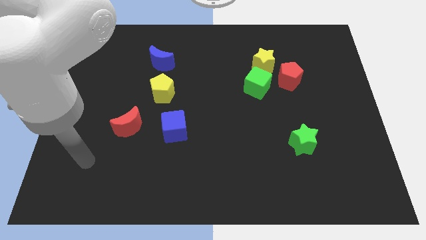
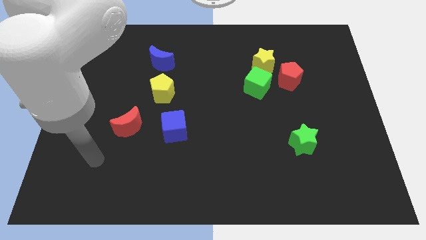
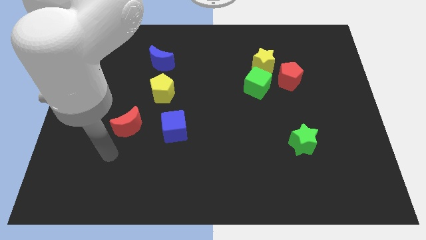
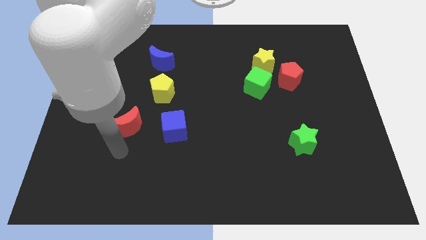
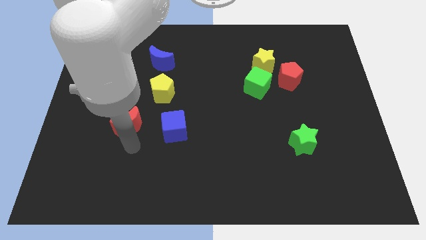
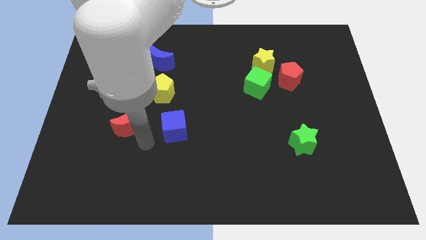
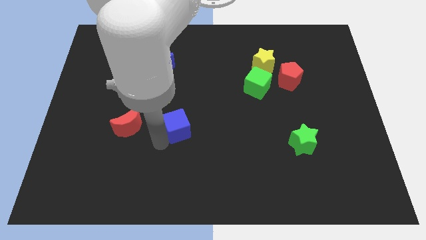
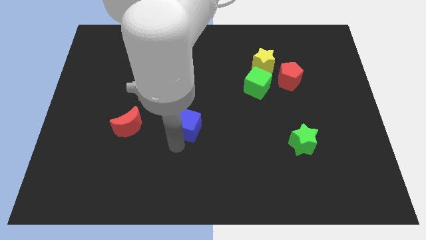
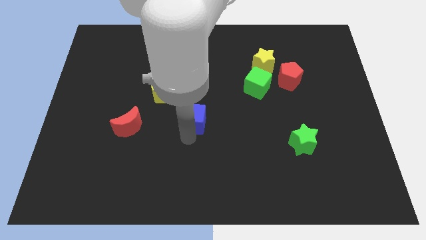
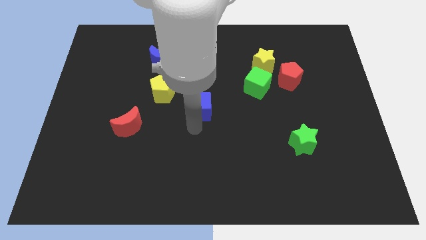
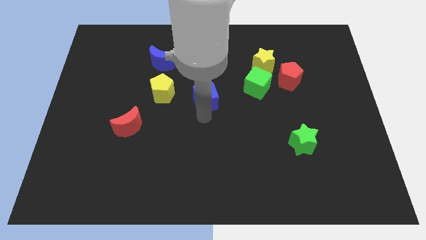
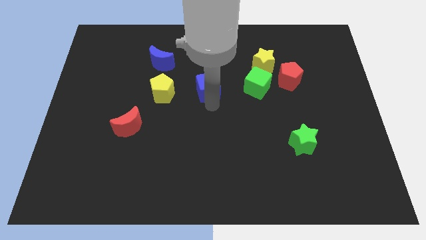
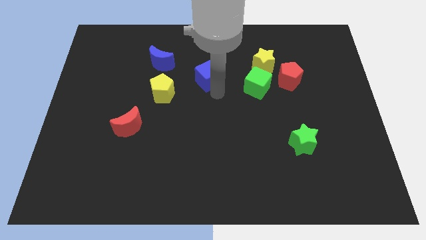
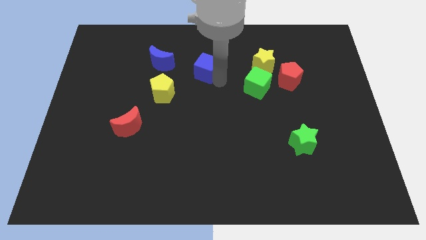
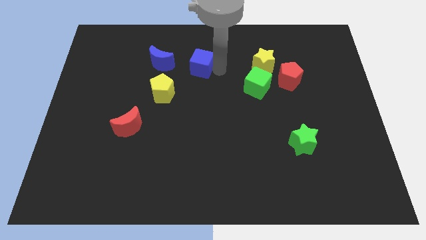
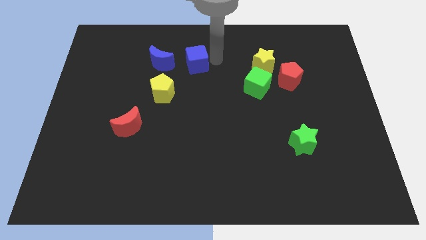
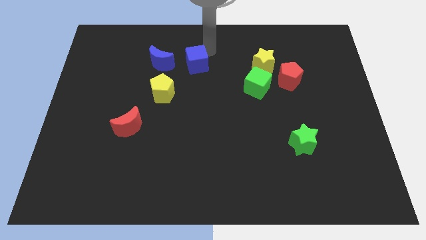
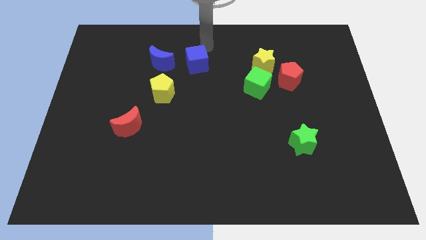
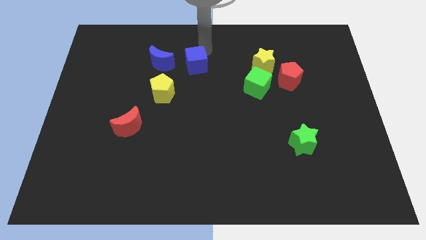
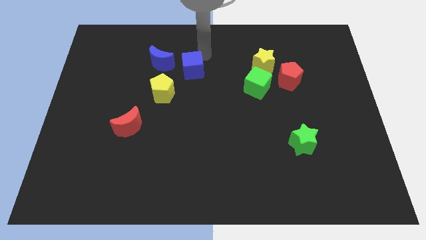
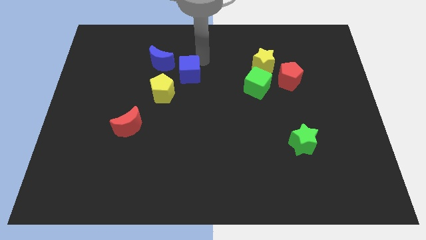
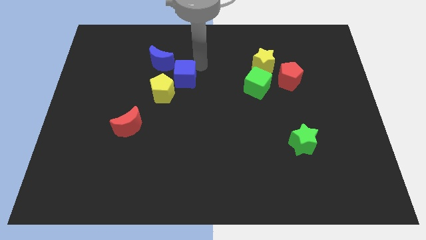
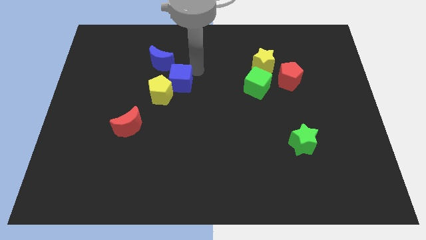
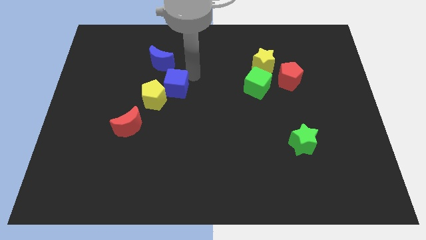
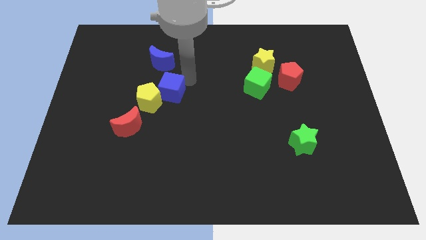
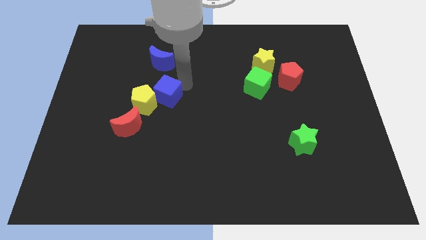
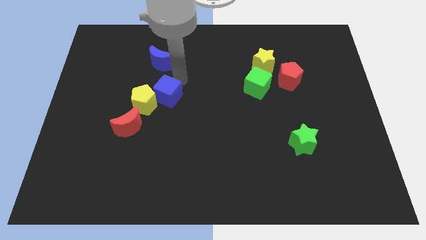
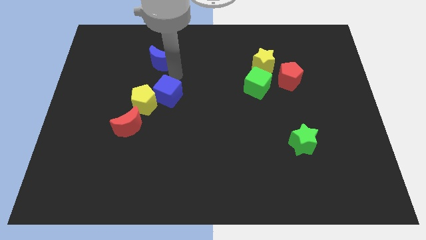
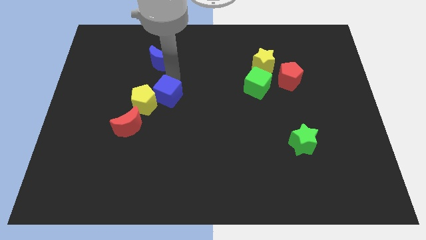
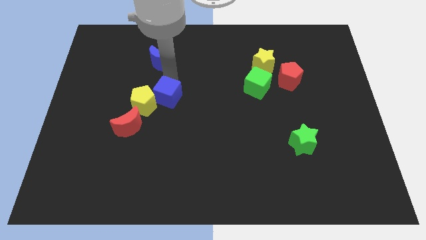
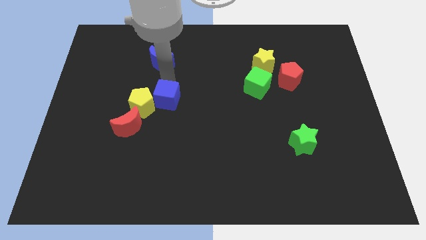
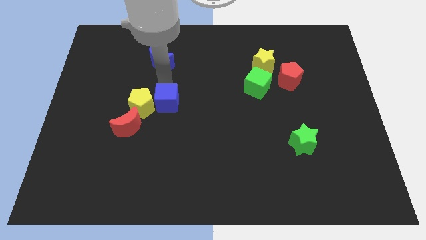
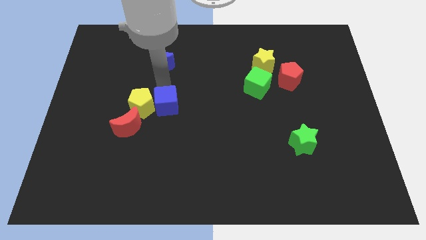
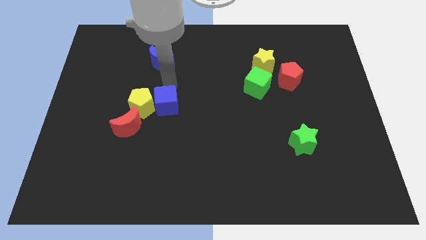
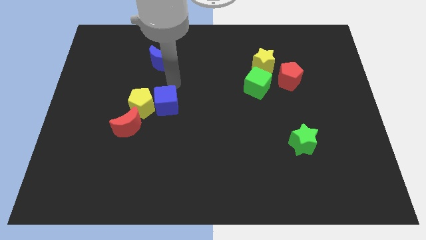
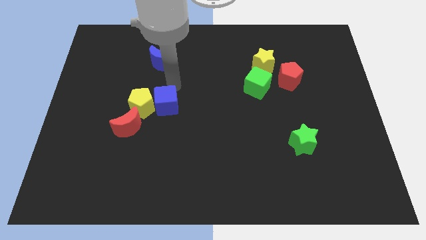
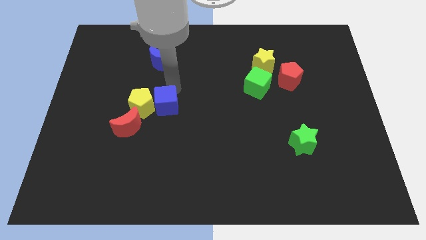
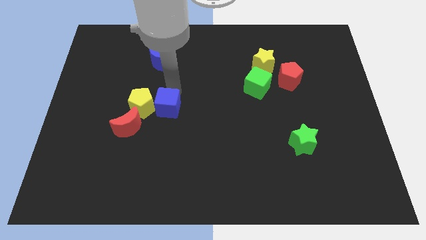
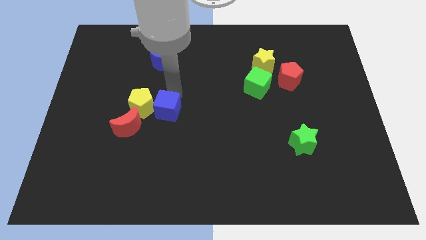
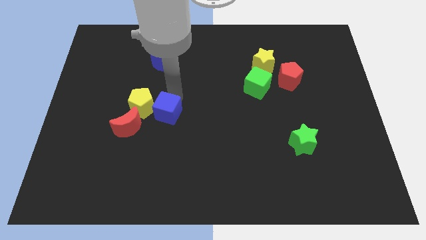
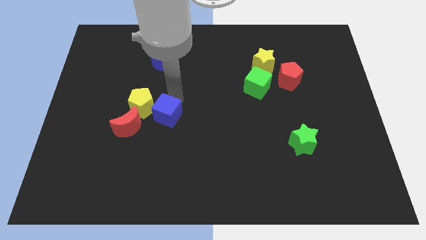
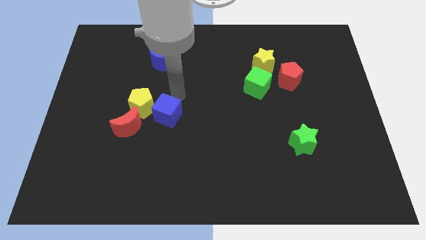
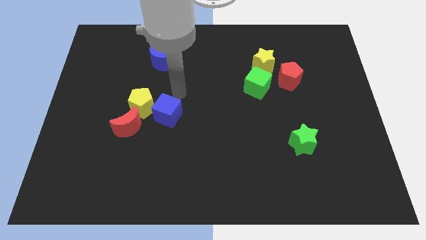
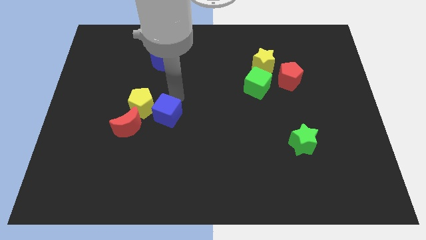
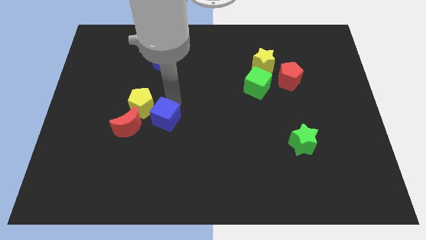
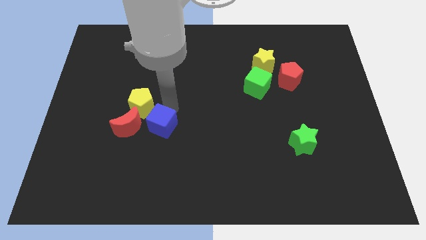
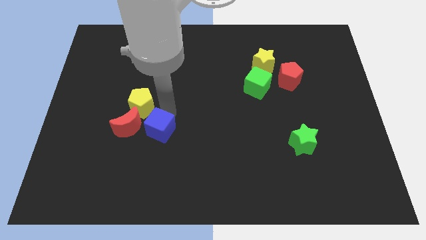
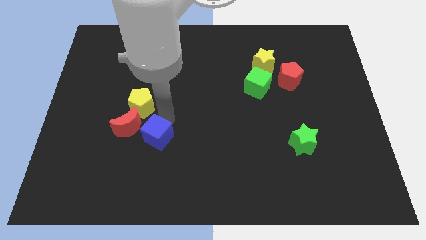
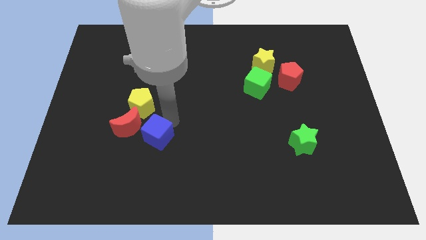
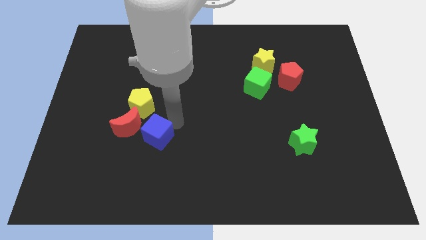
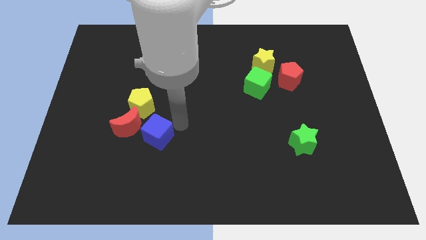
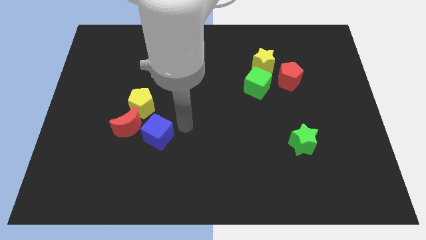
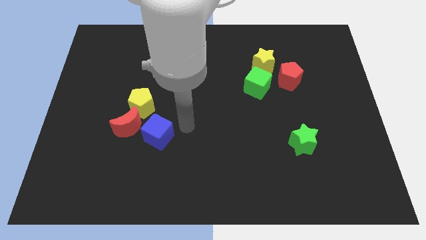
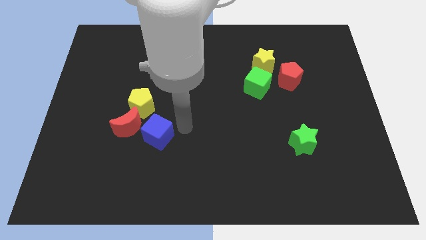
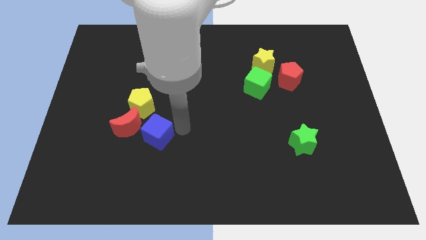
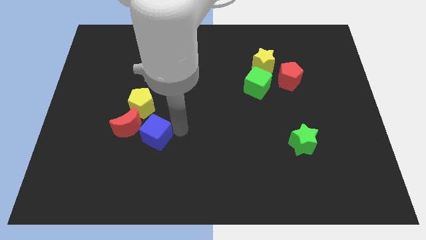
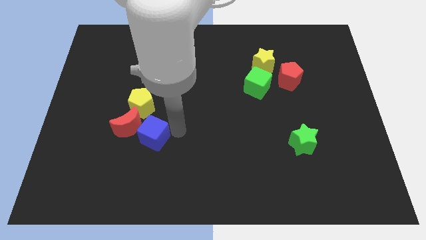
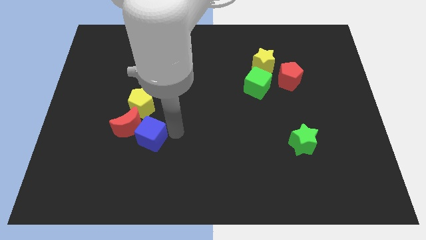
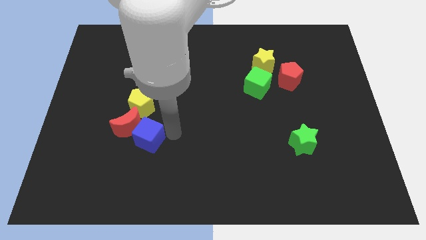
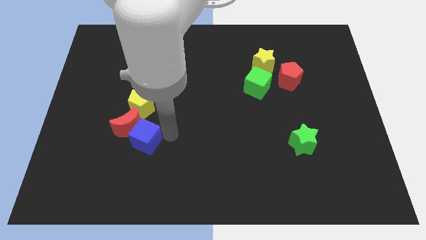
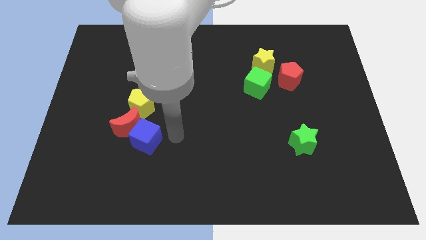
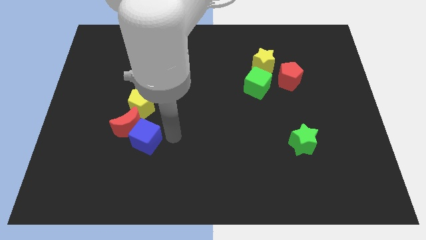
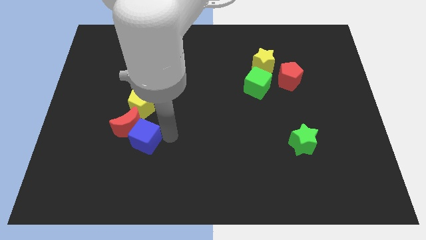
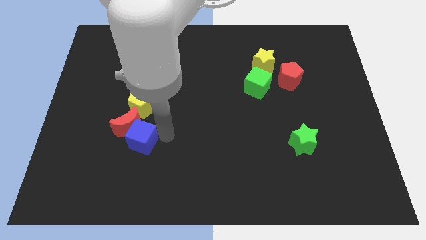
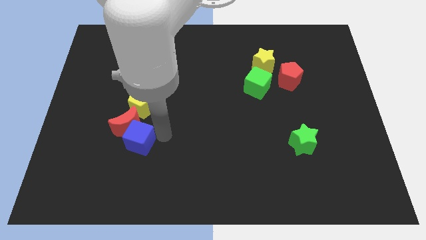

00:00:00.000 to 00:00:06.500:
slide the blue cube a little bit to the left

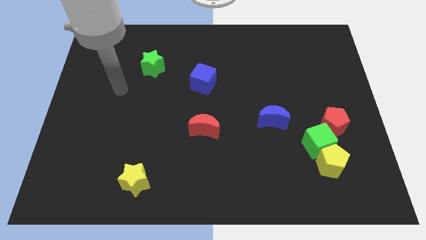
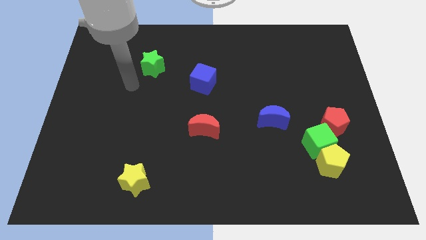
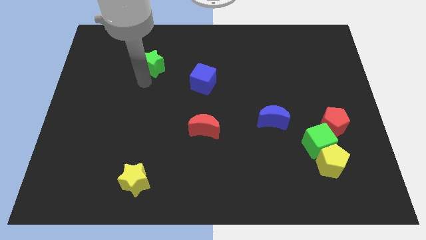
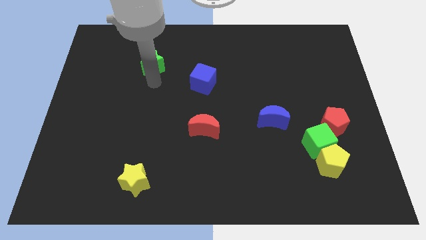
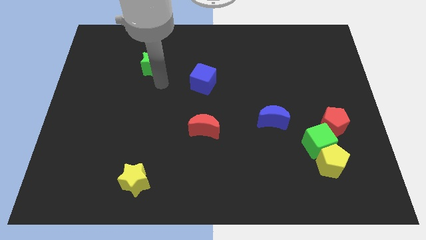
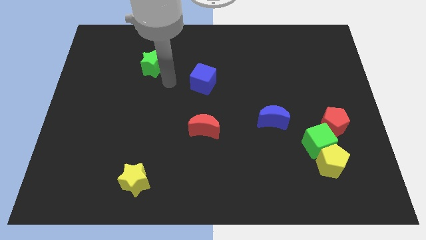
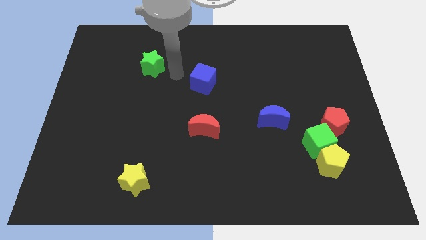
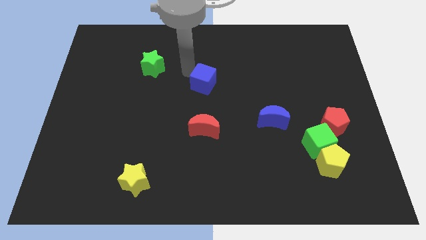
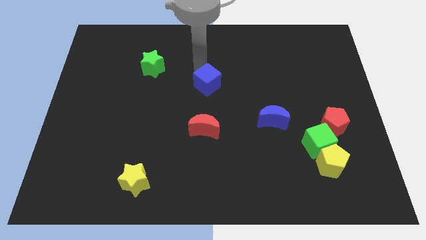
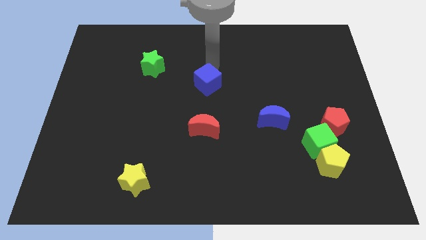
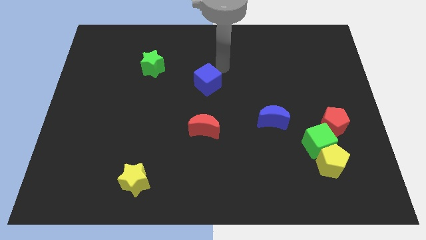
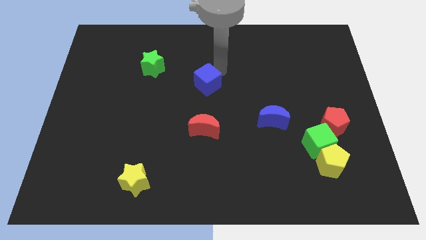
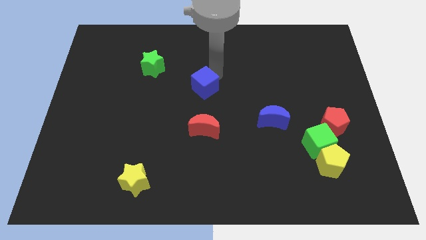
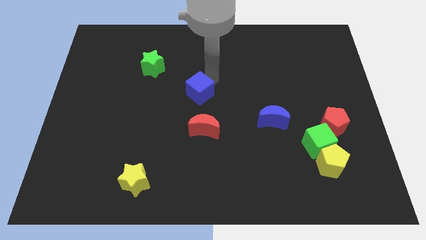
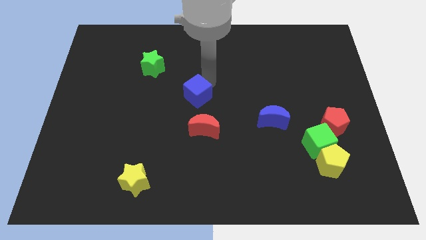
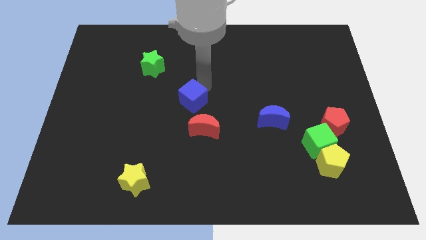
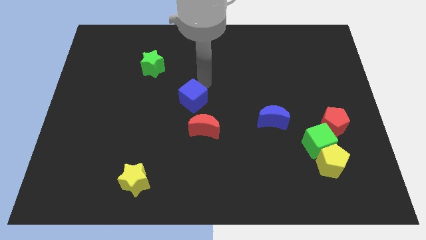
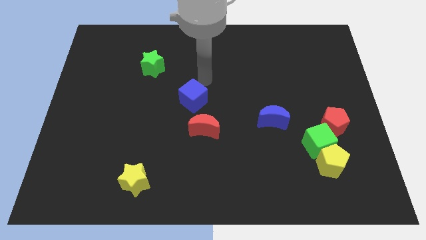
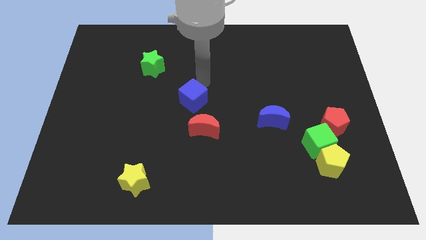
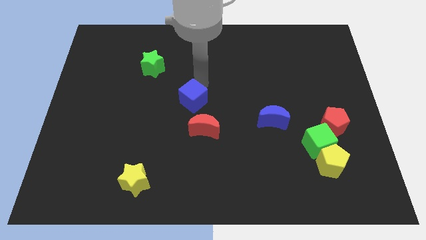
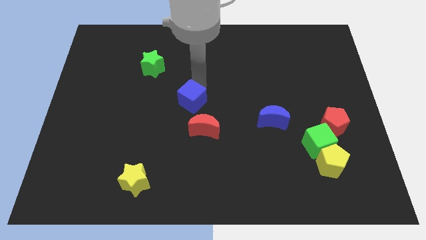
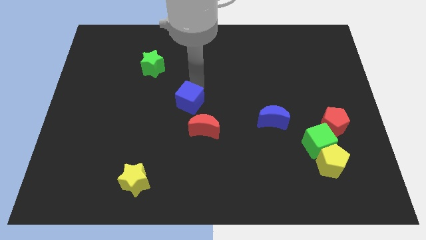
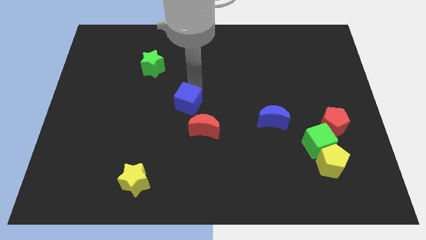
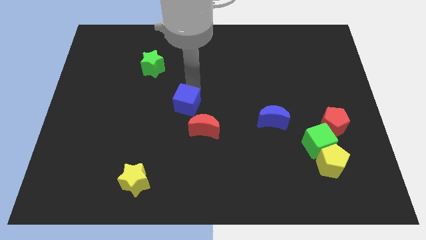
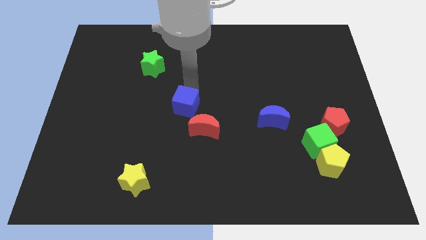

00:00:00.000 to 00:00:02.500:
move the blue cube down a little bit
